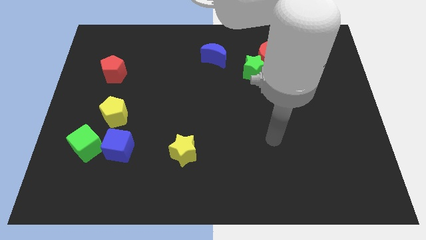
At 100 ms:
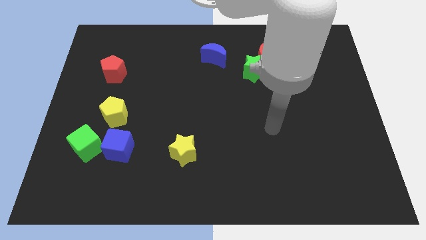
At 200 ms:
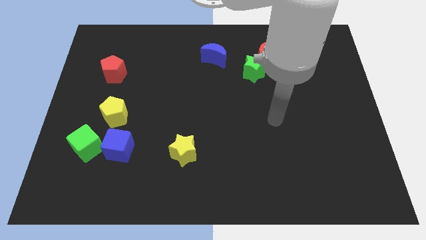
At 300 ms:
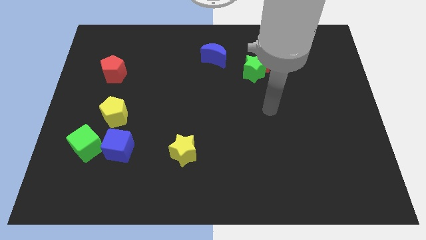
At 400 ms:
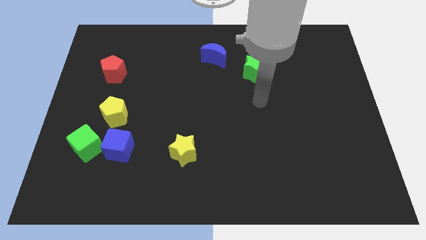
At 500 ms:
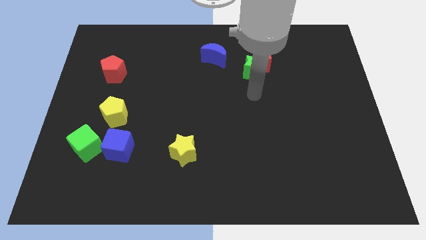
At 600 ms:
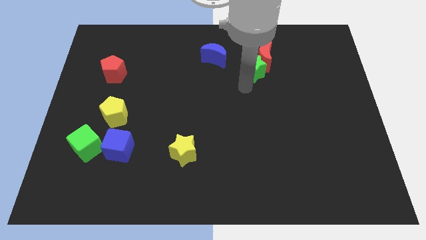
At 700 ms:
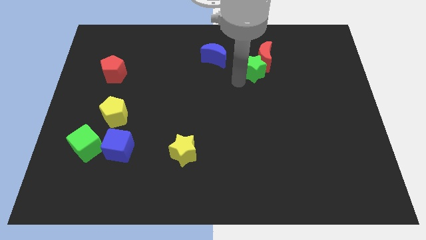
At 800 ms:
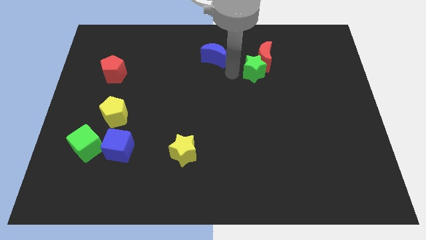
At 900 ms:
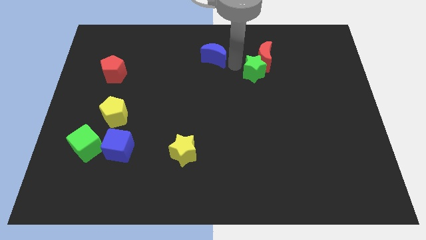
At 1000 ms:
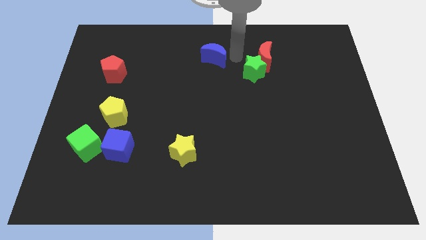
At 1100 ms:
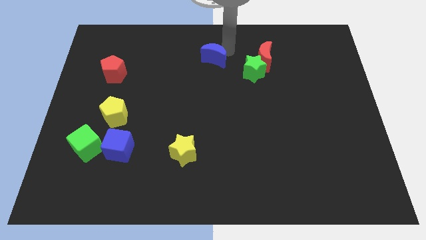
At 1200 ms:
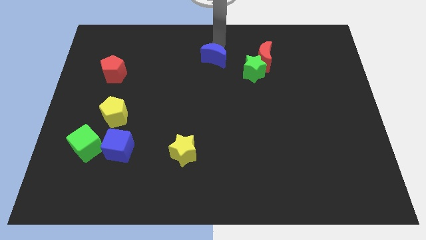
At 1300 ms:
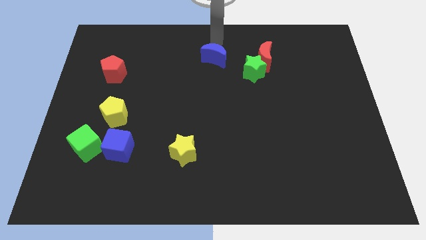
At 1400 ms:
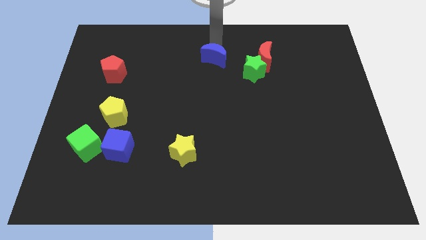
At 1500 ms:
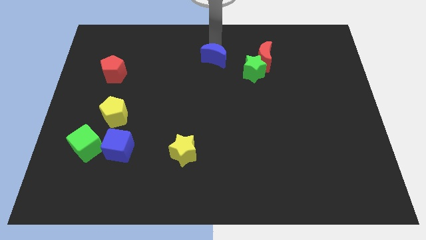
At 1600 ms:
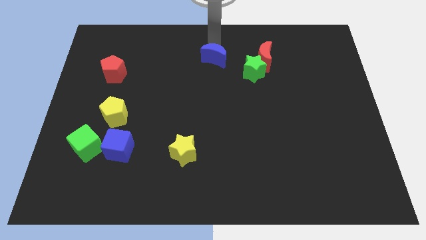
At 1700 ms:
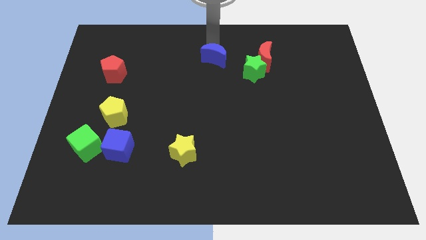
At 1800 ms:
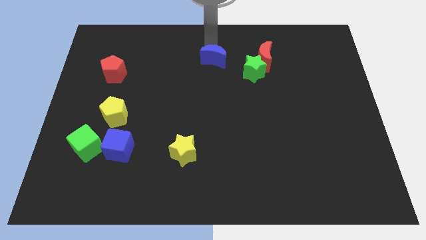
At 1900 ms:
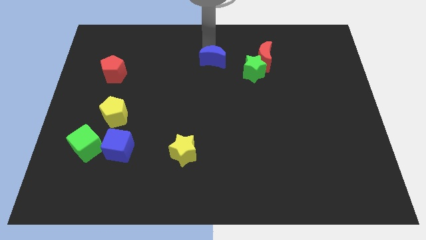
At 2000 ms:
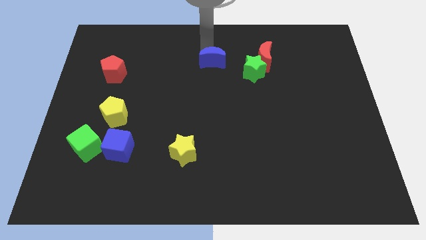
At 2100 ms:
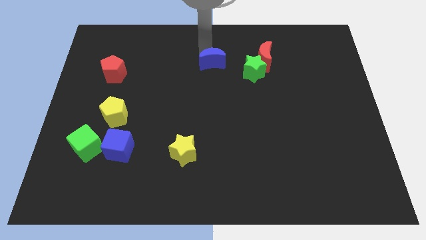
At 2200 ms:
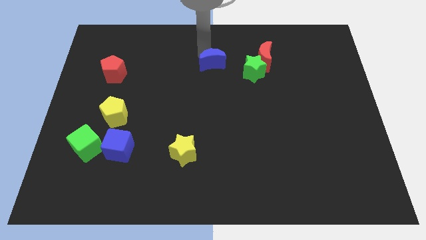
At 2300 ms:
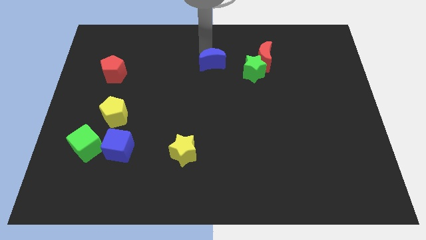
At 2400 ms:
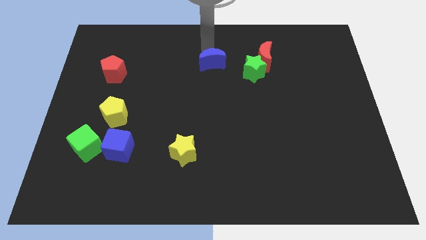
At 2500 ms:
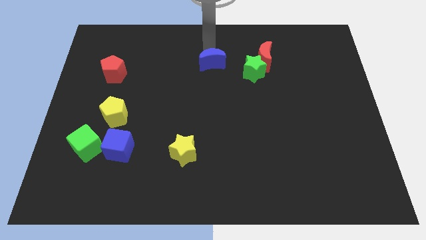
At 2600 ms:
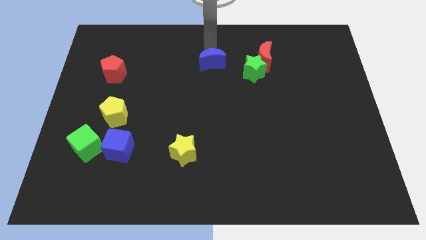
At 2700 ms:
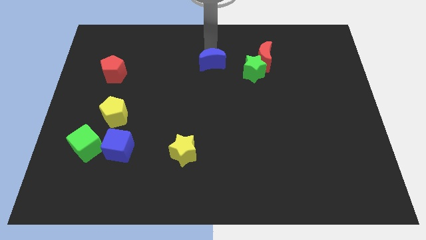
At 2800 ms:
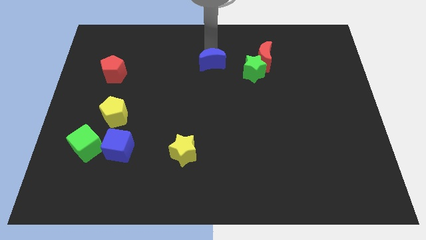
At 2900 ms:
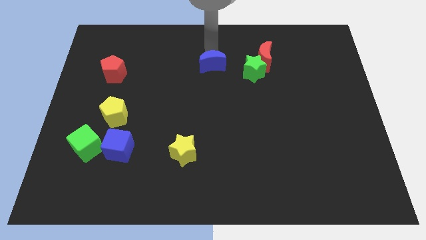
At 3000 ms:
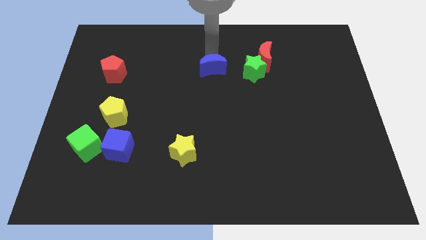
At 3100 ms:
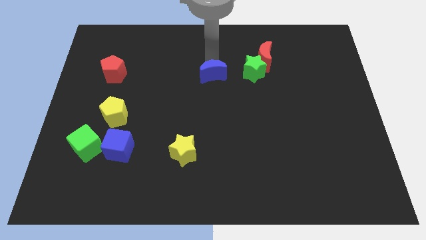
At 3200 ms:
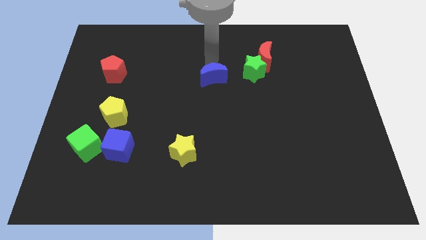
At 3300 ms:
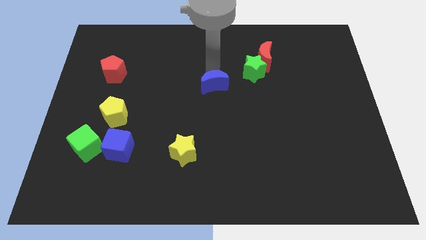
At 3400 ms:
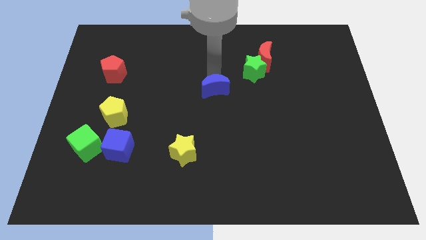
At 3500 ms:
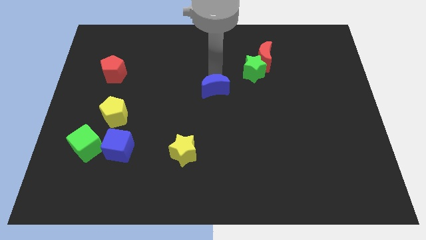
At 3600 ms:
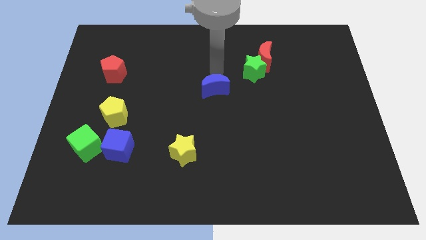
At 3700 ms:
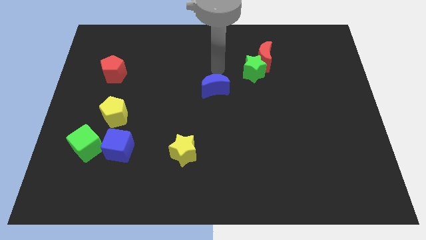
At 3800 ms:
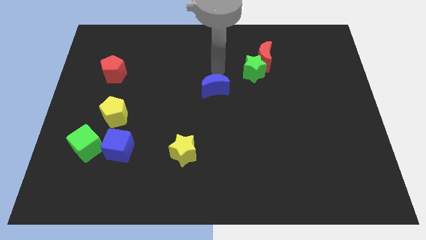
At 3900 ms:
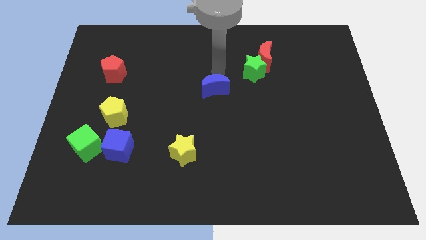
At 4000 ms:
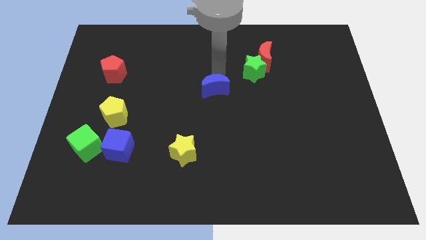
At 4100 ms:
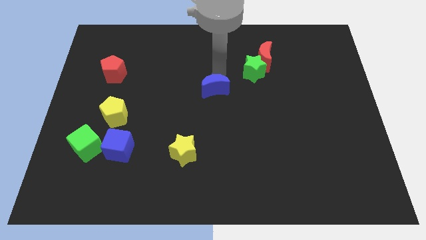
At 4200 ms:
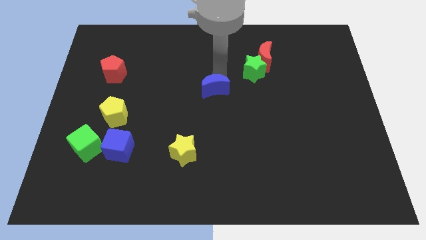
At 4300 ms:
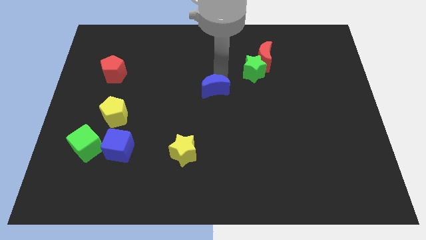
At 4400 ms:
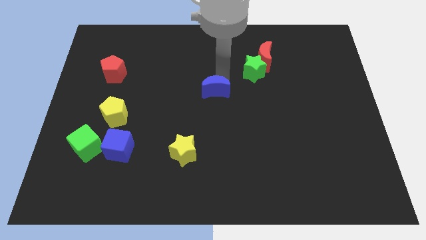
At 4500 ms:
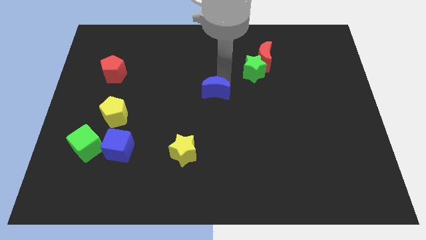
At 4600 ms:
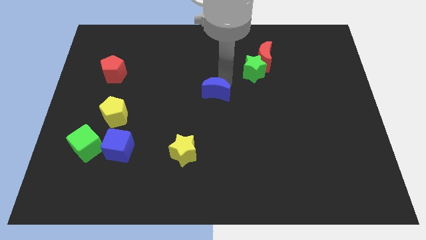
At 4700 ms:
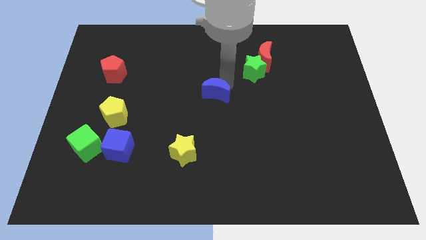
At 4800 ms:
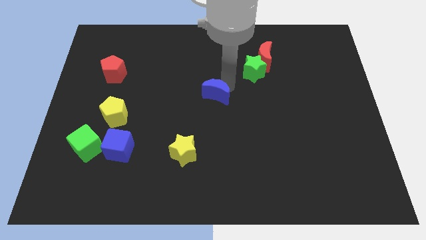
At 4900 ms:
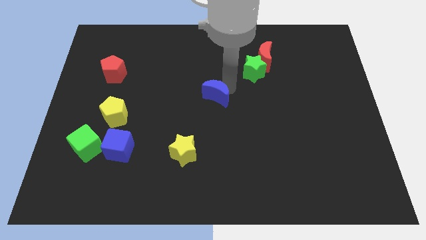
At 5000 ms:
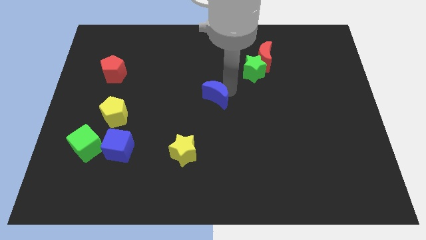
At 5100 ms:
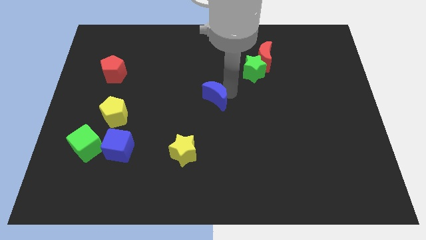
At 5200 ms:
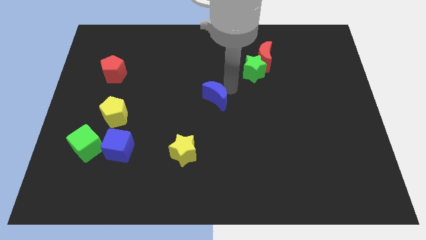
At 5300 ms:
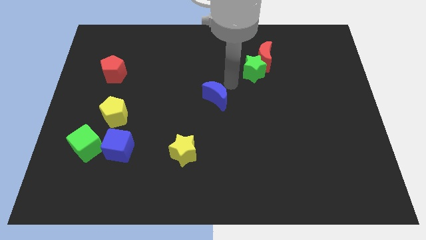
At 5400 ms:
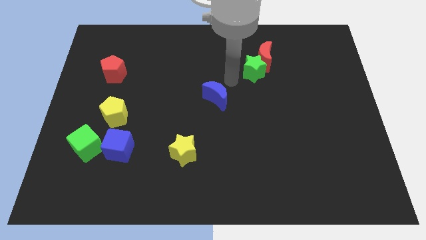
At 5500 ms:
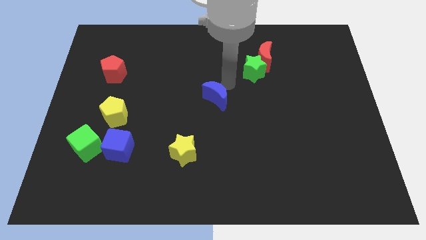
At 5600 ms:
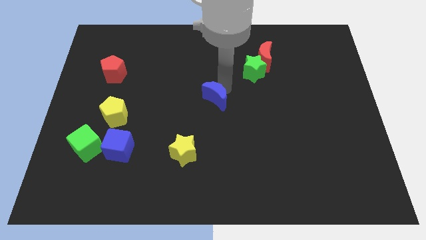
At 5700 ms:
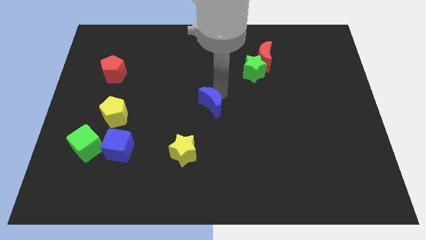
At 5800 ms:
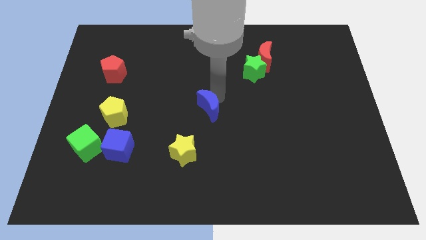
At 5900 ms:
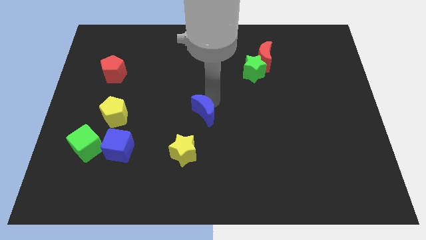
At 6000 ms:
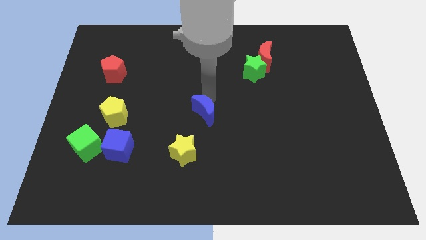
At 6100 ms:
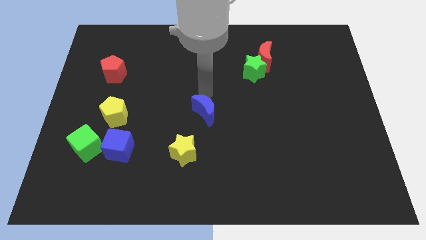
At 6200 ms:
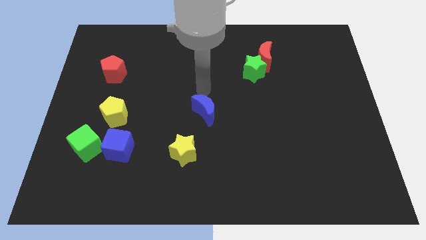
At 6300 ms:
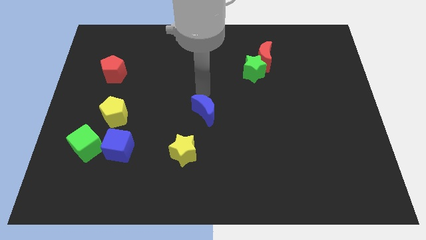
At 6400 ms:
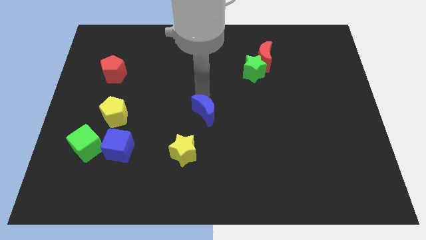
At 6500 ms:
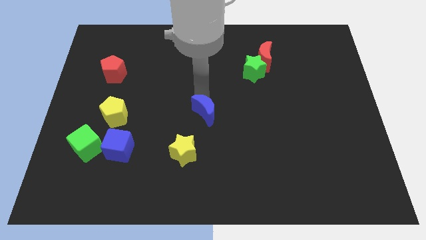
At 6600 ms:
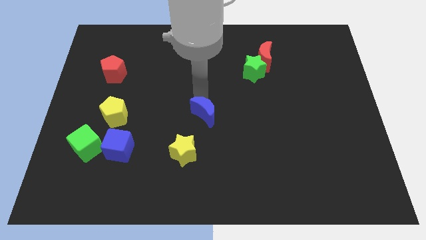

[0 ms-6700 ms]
move the blue moon to the top right of the yellow star
